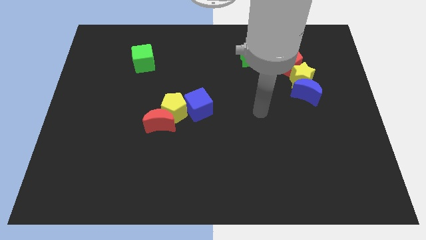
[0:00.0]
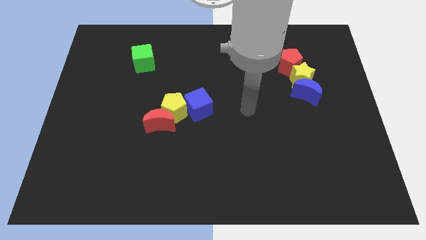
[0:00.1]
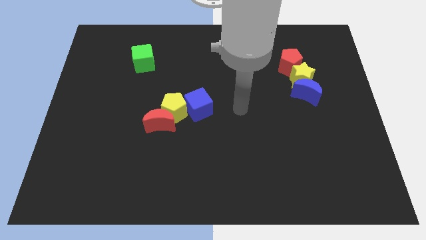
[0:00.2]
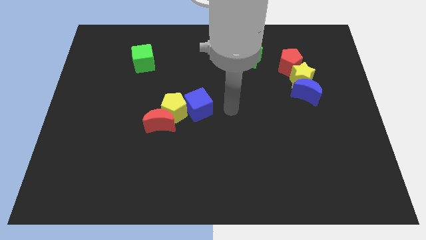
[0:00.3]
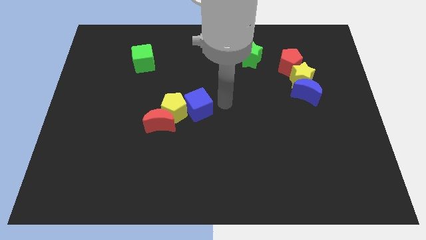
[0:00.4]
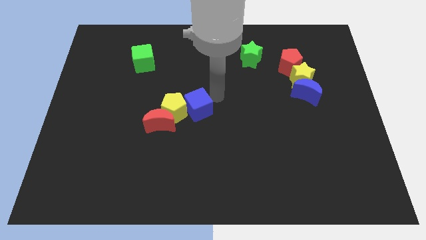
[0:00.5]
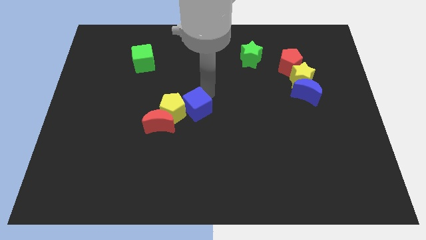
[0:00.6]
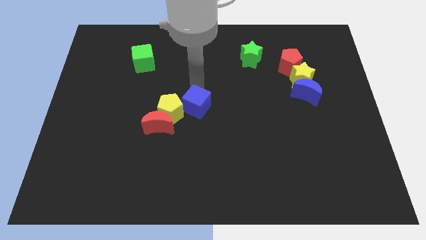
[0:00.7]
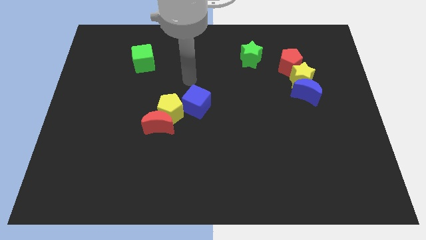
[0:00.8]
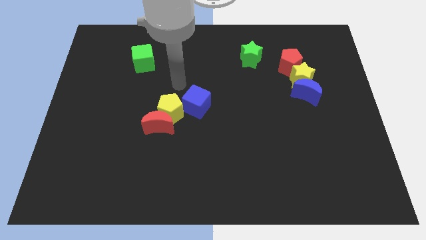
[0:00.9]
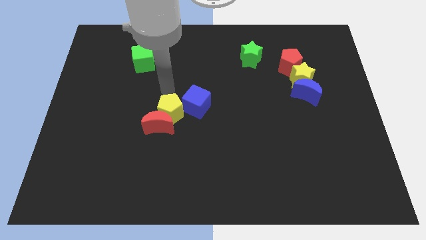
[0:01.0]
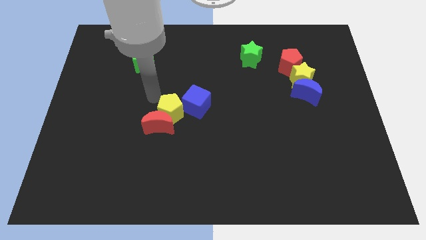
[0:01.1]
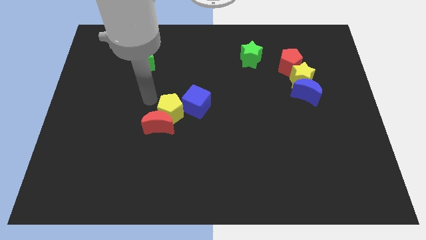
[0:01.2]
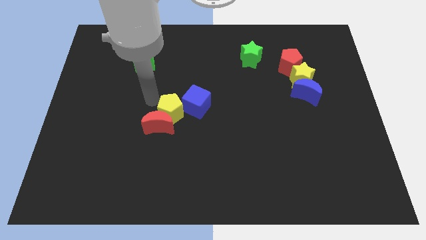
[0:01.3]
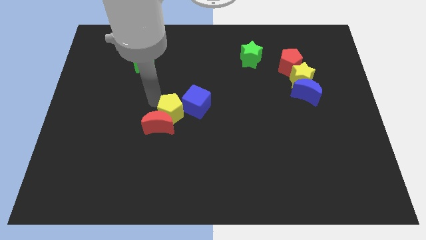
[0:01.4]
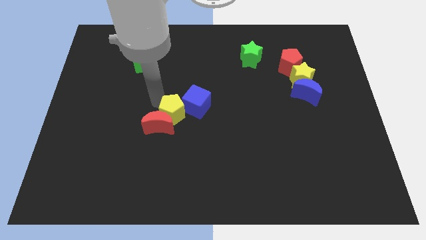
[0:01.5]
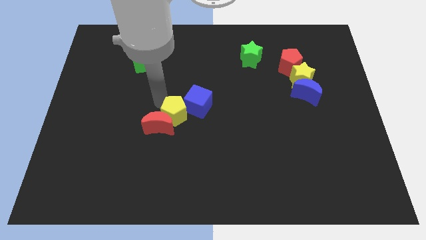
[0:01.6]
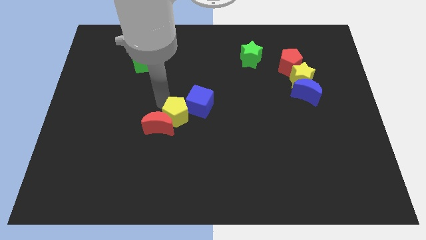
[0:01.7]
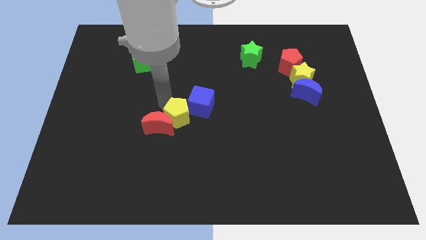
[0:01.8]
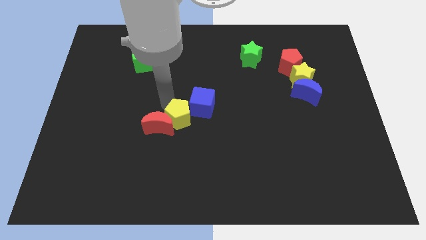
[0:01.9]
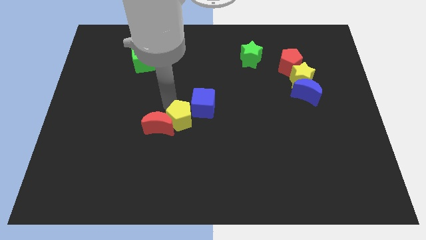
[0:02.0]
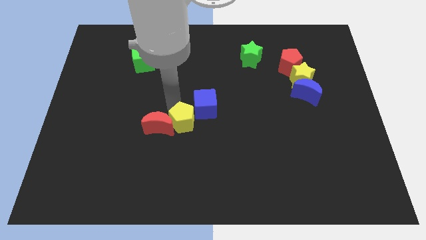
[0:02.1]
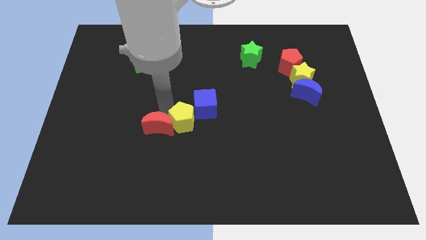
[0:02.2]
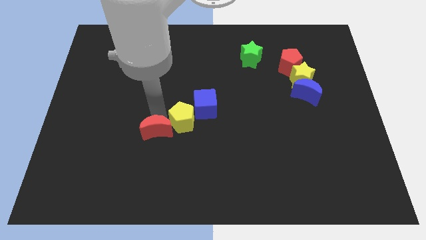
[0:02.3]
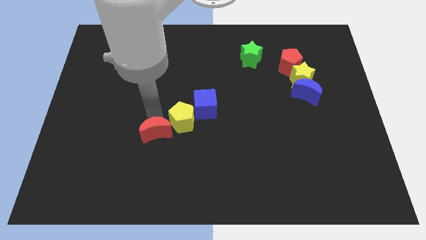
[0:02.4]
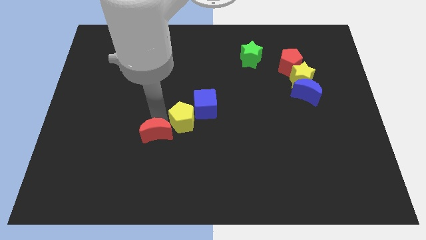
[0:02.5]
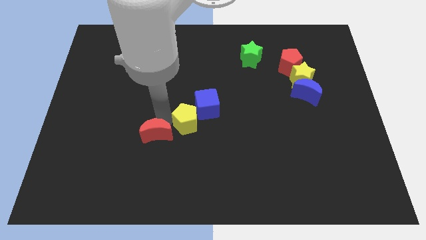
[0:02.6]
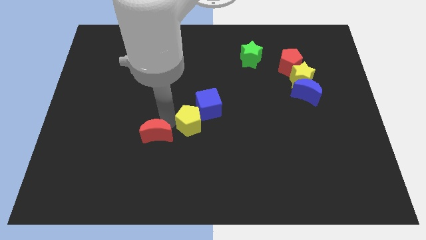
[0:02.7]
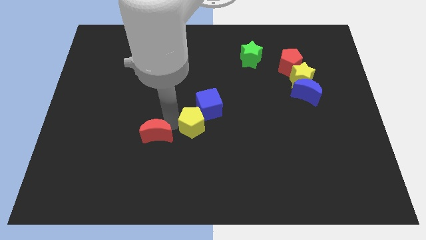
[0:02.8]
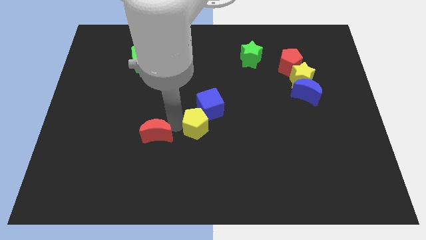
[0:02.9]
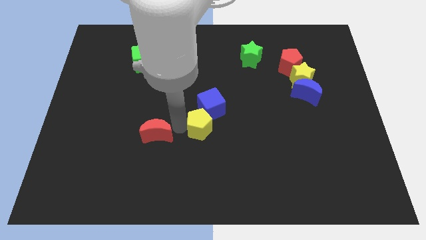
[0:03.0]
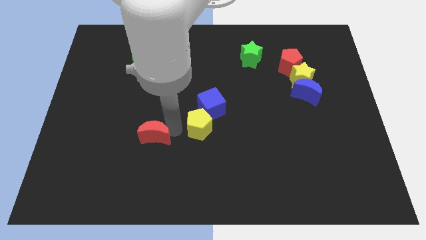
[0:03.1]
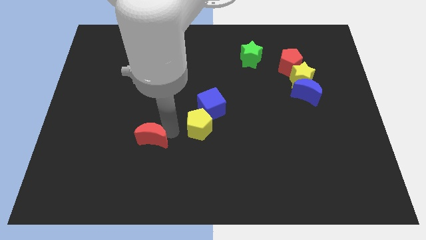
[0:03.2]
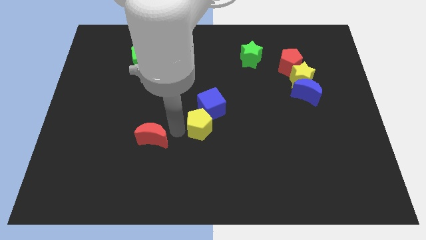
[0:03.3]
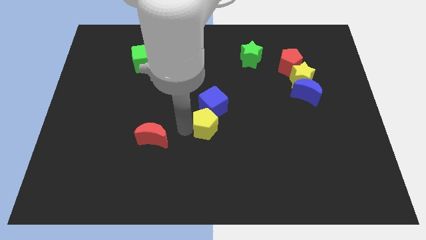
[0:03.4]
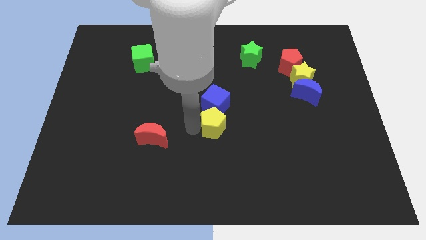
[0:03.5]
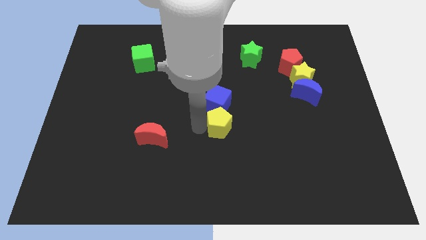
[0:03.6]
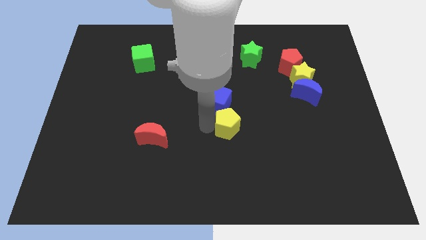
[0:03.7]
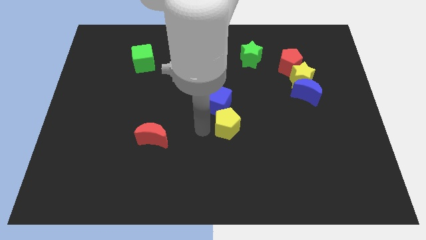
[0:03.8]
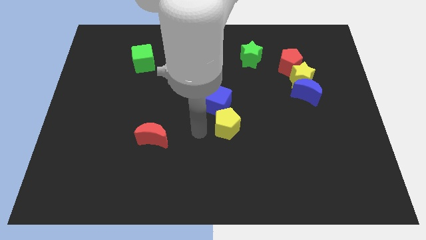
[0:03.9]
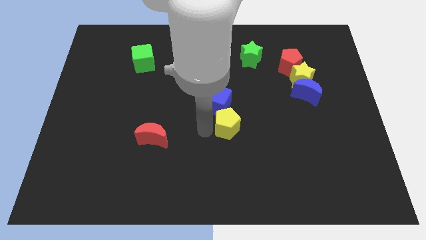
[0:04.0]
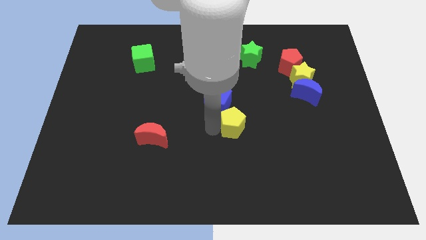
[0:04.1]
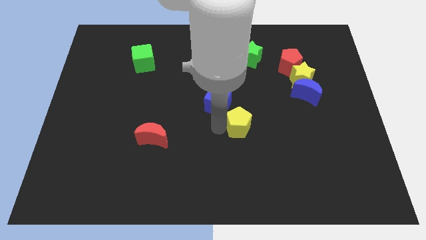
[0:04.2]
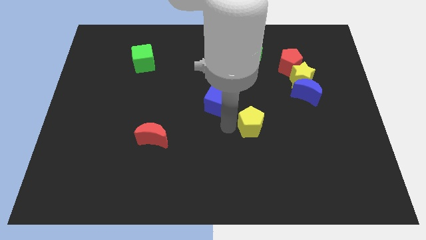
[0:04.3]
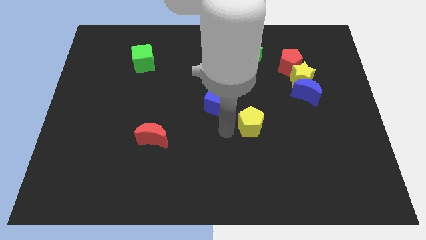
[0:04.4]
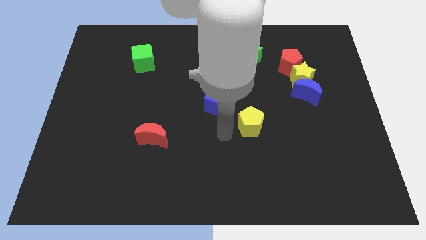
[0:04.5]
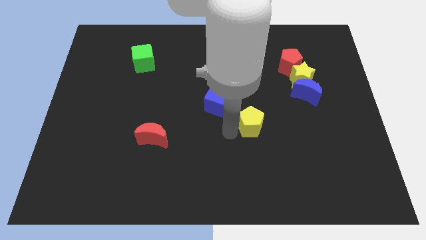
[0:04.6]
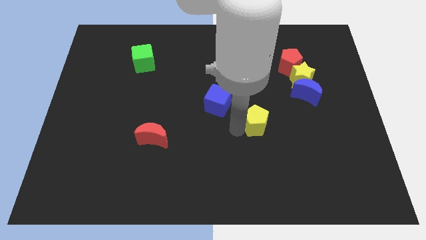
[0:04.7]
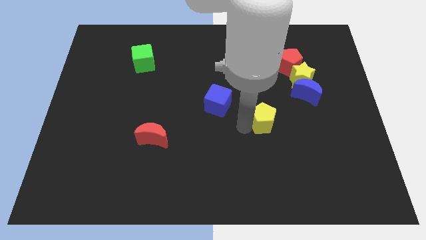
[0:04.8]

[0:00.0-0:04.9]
move the yellow pentagon to the right

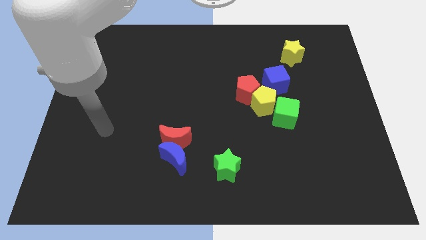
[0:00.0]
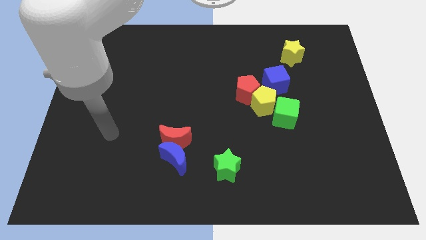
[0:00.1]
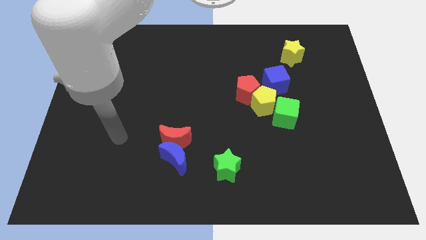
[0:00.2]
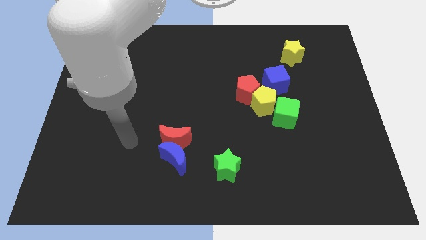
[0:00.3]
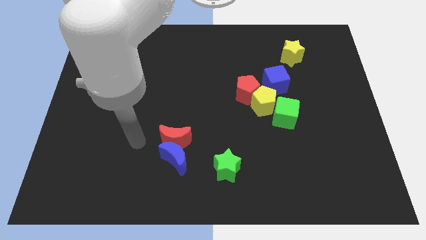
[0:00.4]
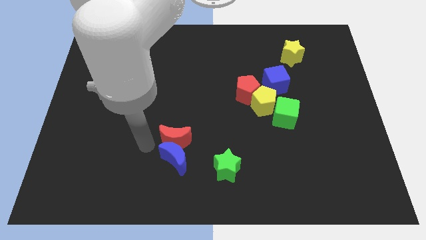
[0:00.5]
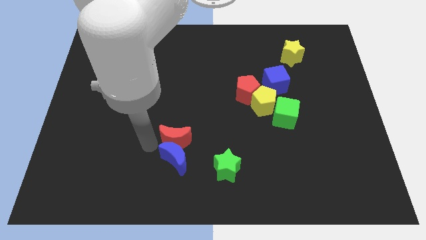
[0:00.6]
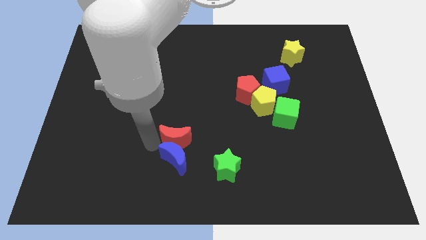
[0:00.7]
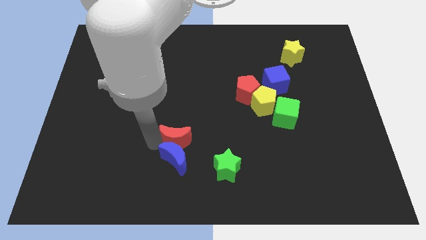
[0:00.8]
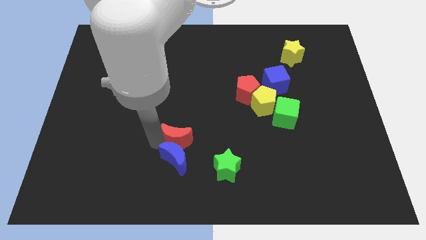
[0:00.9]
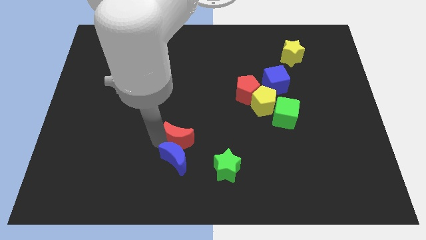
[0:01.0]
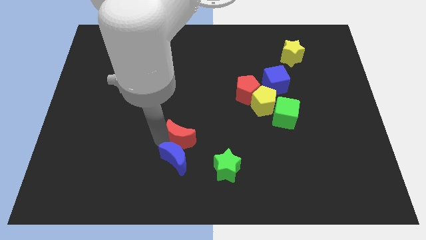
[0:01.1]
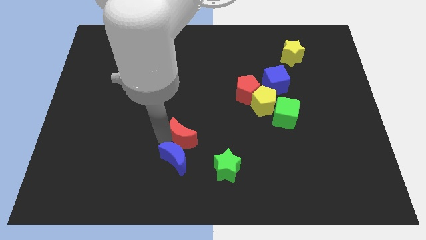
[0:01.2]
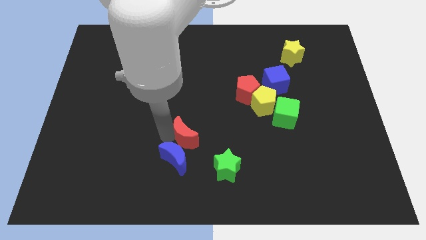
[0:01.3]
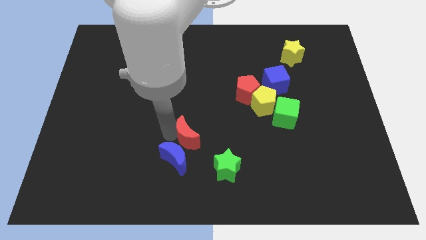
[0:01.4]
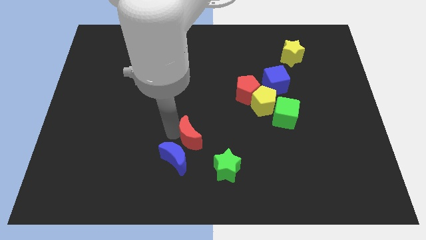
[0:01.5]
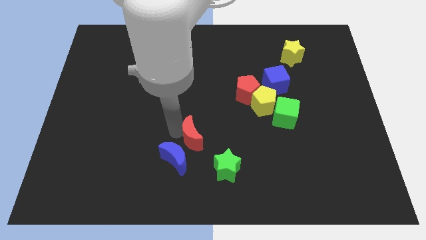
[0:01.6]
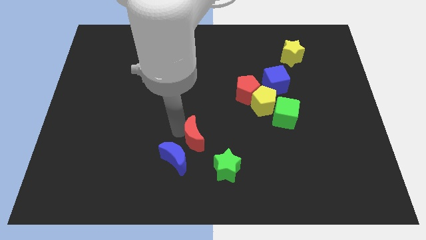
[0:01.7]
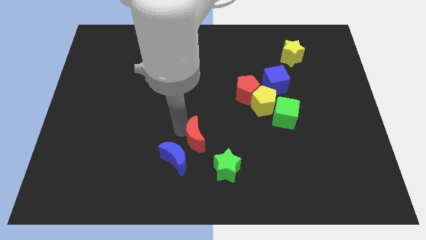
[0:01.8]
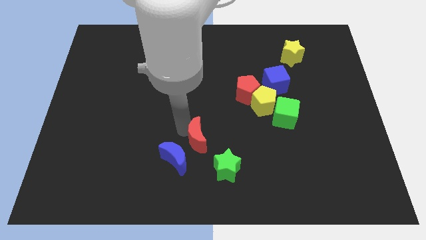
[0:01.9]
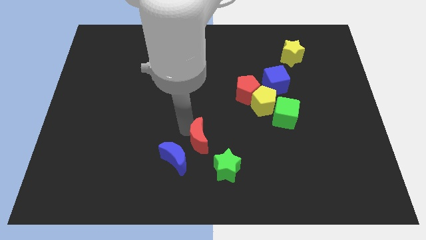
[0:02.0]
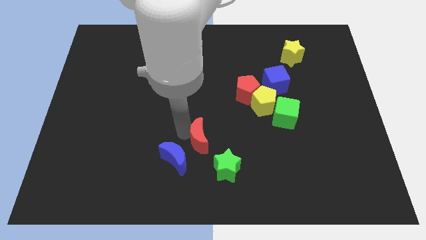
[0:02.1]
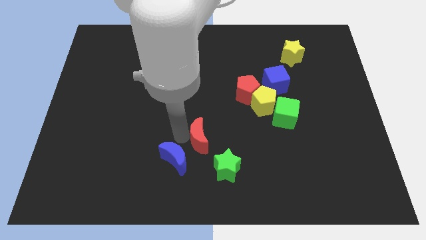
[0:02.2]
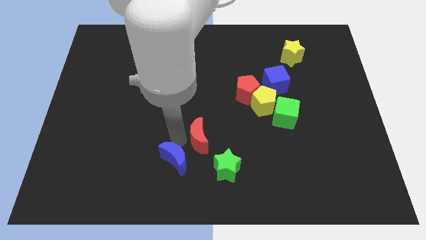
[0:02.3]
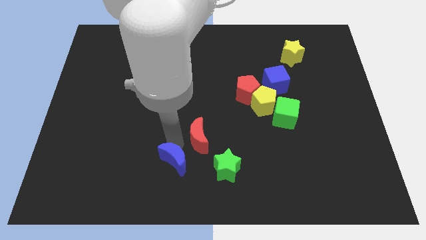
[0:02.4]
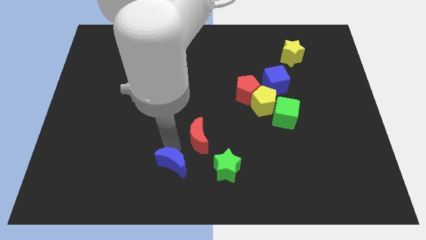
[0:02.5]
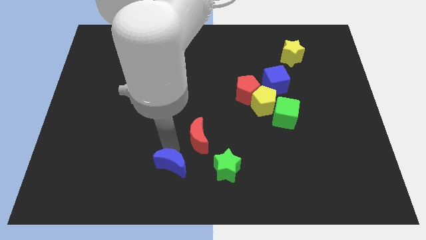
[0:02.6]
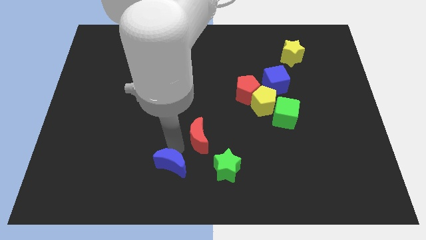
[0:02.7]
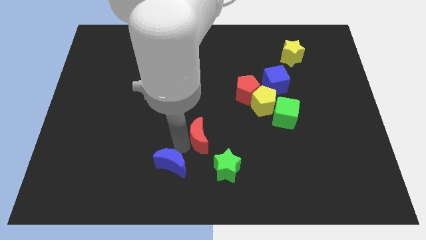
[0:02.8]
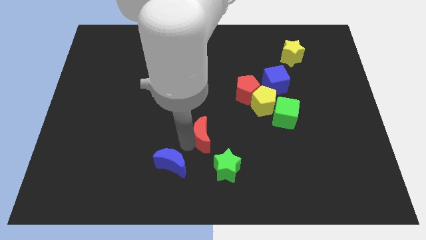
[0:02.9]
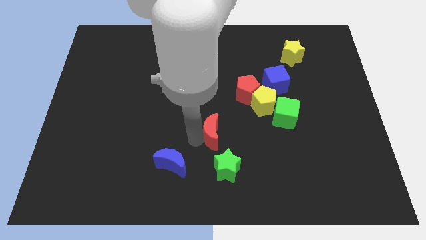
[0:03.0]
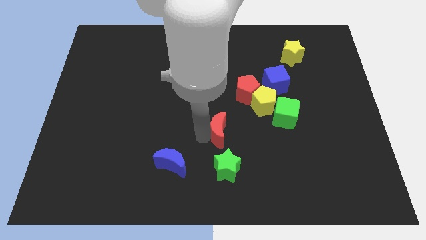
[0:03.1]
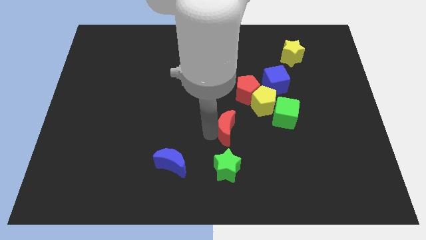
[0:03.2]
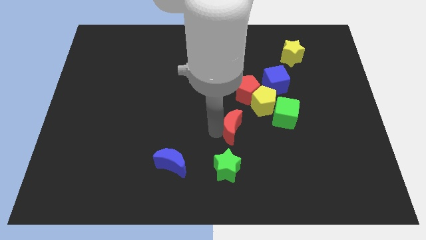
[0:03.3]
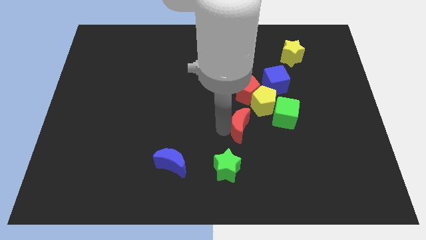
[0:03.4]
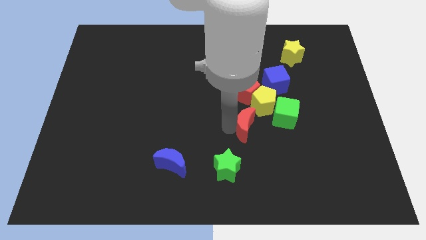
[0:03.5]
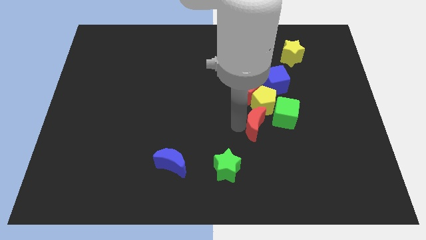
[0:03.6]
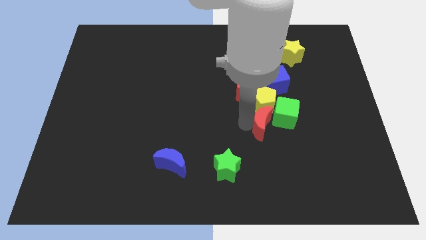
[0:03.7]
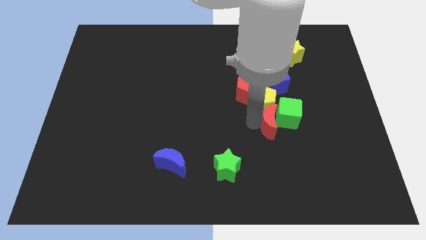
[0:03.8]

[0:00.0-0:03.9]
move the red moon right
